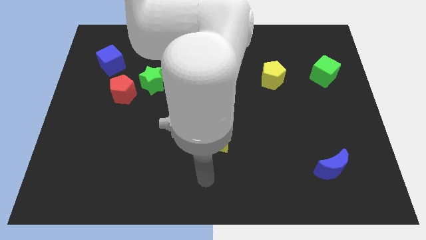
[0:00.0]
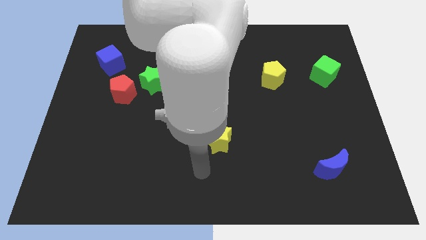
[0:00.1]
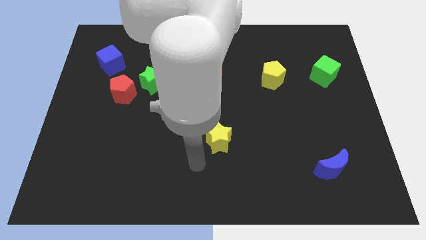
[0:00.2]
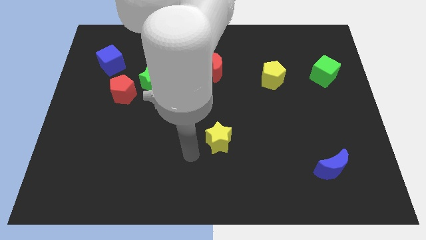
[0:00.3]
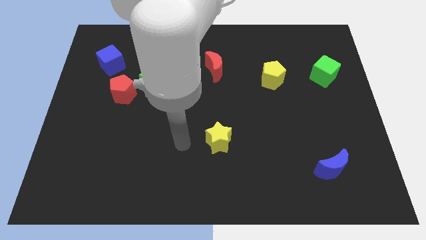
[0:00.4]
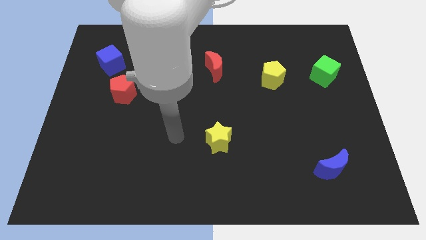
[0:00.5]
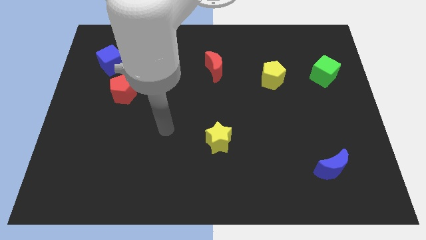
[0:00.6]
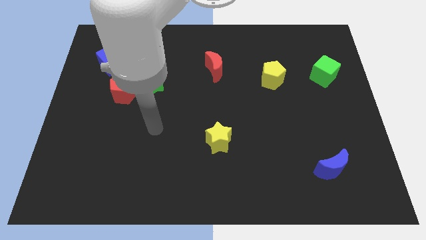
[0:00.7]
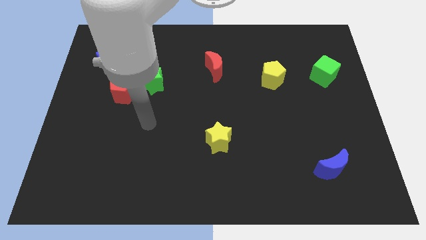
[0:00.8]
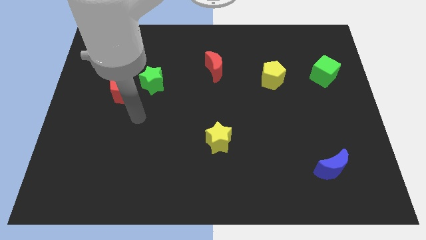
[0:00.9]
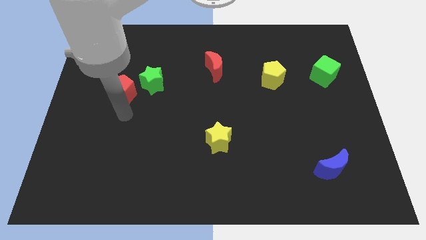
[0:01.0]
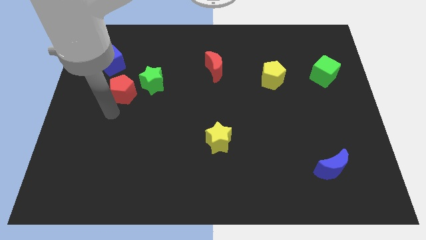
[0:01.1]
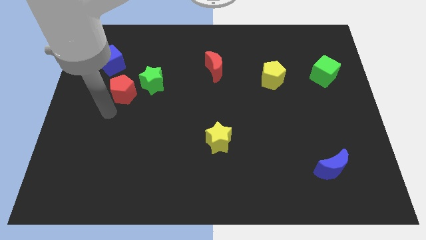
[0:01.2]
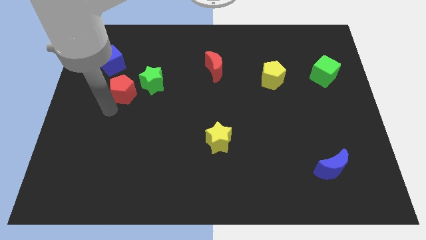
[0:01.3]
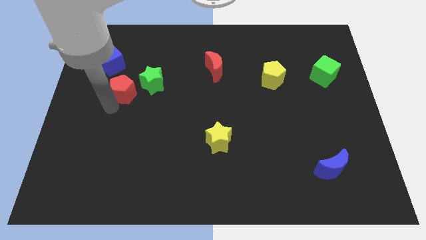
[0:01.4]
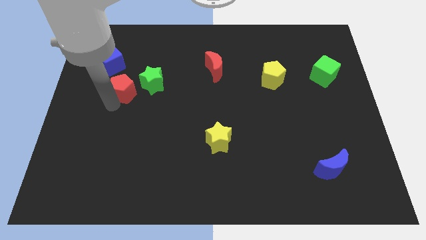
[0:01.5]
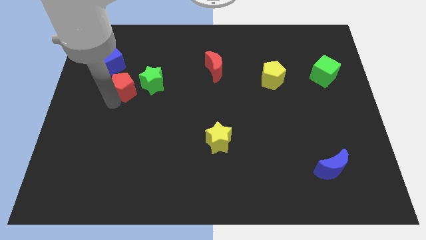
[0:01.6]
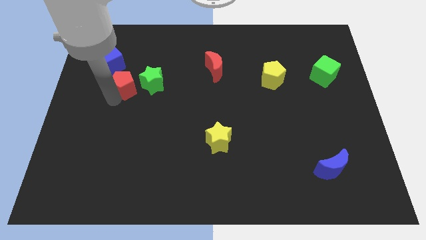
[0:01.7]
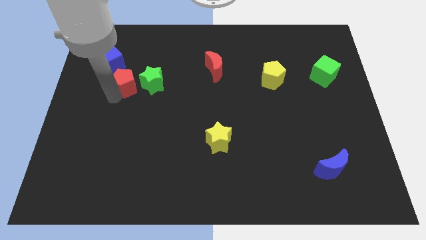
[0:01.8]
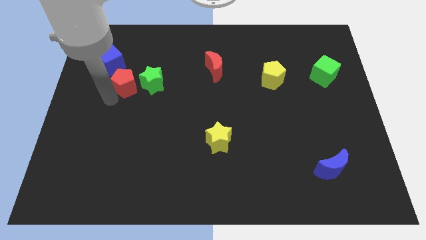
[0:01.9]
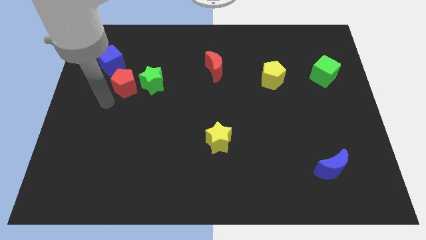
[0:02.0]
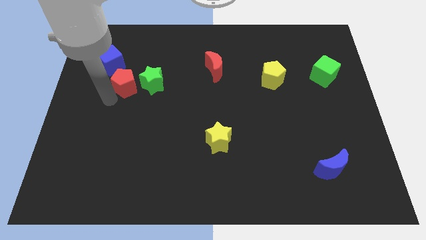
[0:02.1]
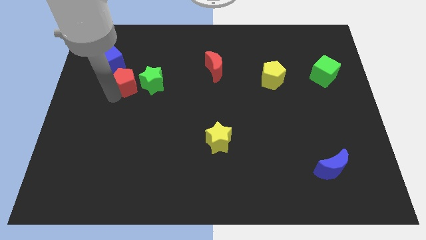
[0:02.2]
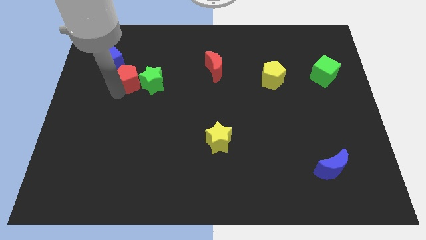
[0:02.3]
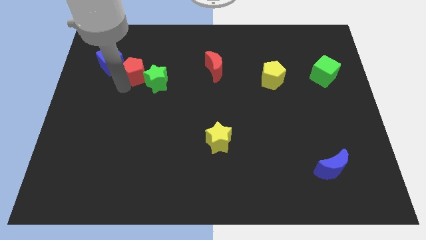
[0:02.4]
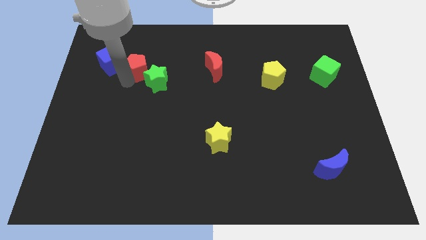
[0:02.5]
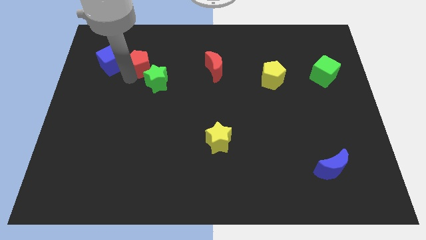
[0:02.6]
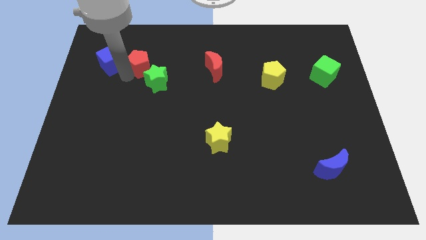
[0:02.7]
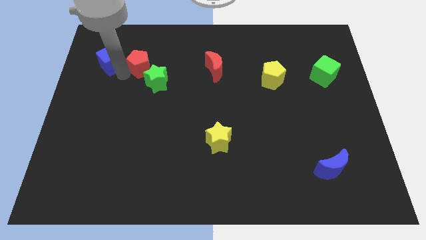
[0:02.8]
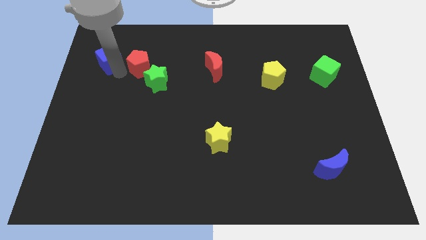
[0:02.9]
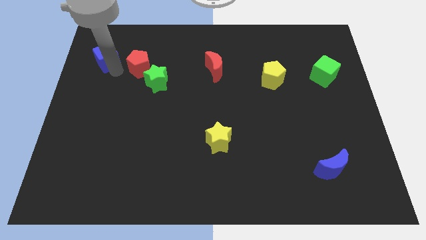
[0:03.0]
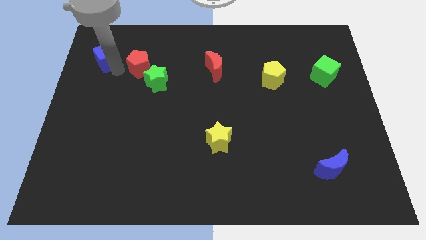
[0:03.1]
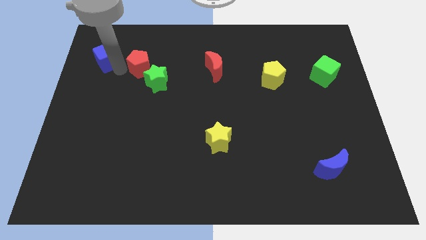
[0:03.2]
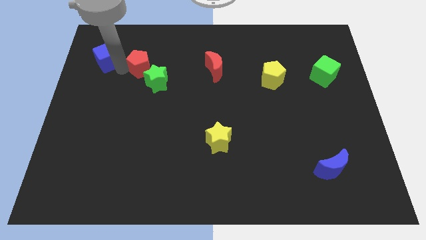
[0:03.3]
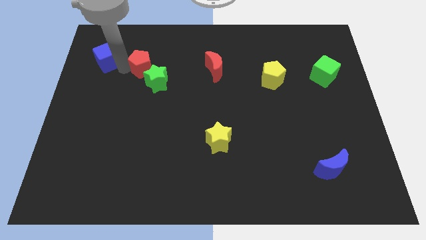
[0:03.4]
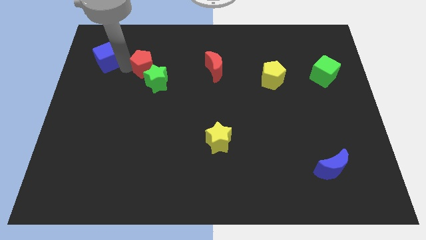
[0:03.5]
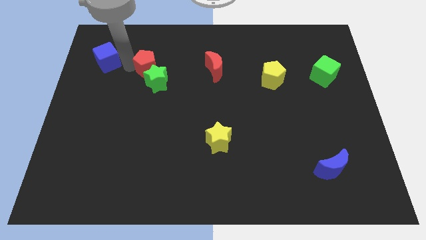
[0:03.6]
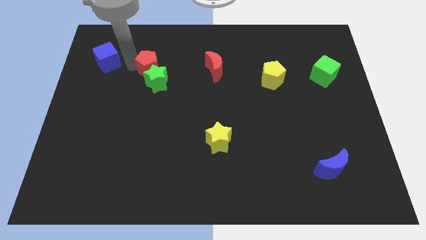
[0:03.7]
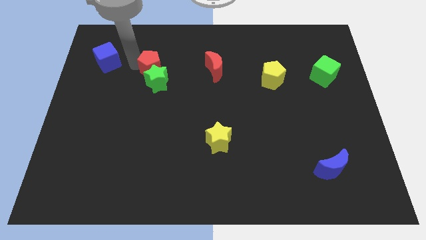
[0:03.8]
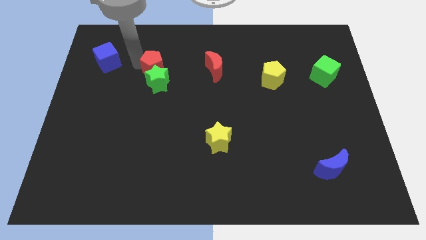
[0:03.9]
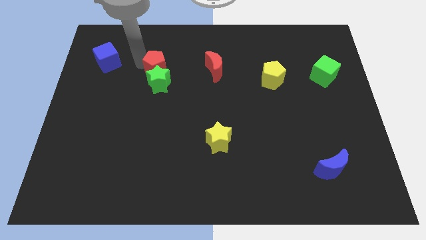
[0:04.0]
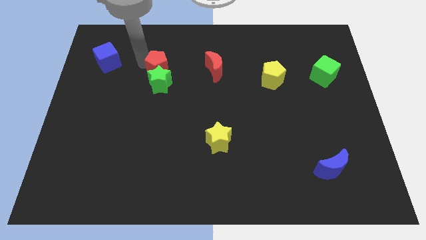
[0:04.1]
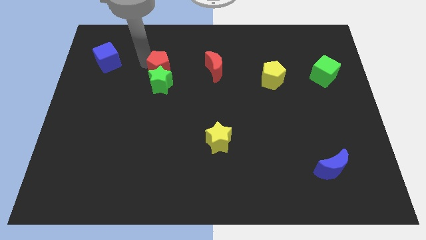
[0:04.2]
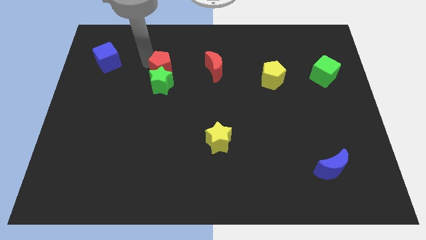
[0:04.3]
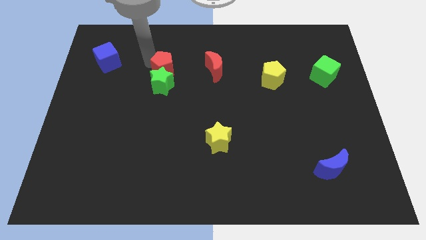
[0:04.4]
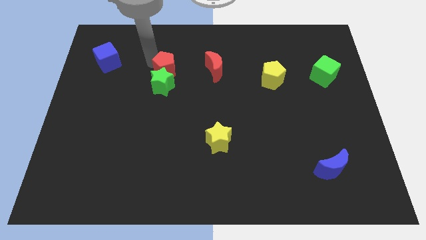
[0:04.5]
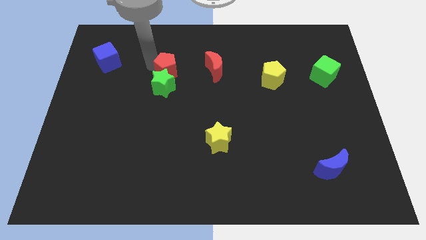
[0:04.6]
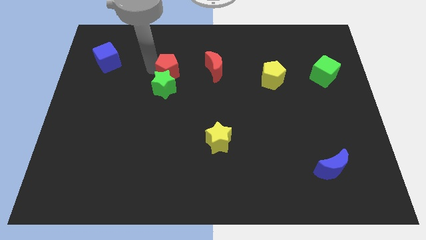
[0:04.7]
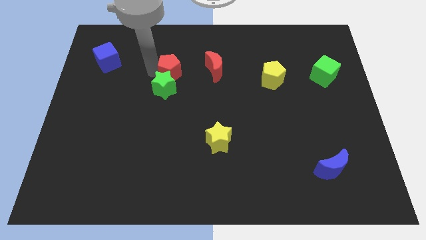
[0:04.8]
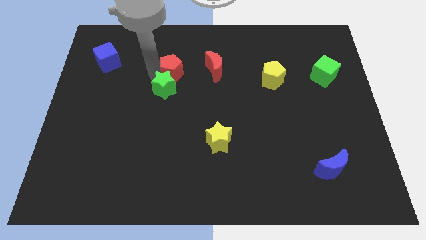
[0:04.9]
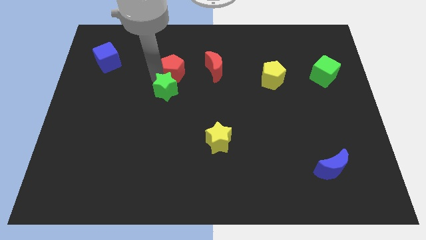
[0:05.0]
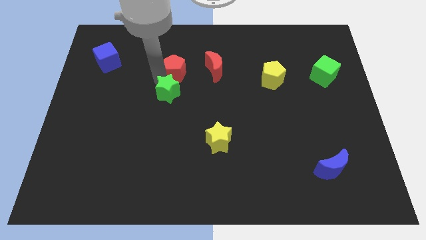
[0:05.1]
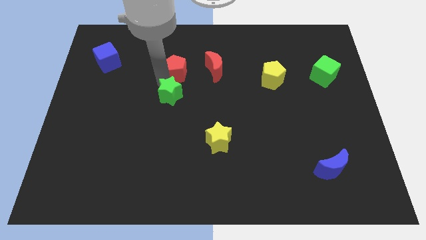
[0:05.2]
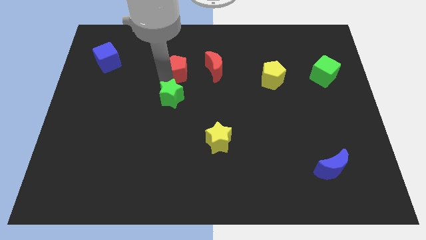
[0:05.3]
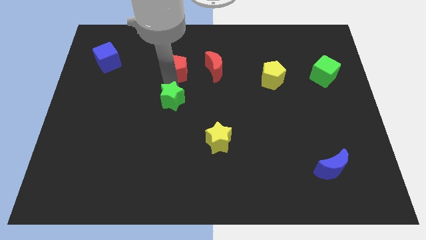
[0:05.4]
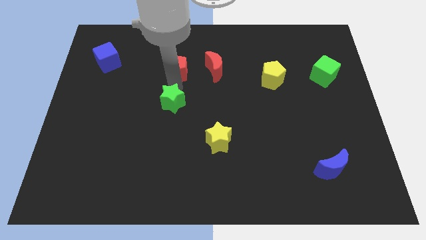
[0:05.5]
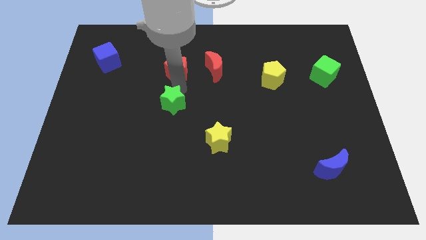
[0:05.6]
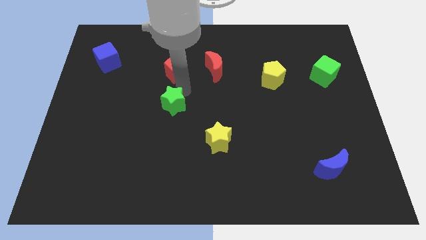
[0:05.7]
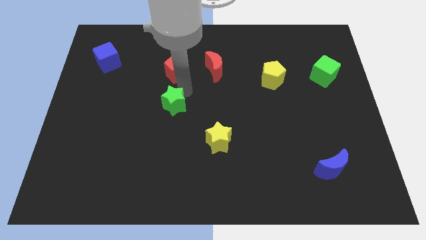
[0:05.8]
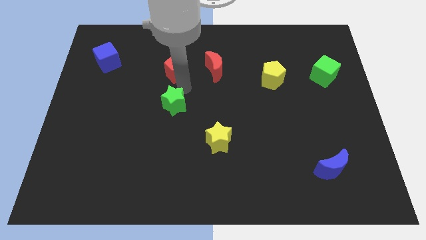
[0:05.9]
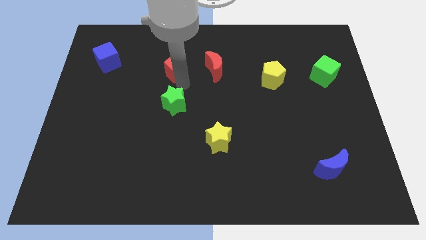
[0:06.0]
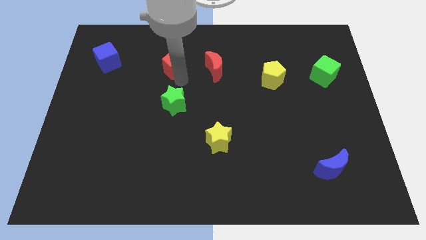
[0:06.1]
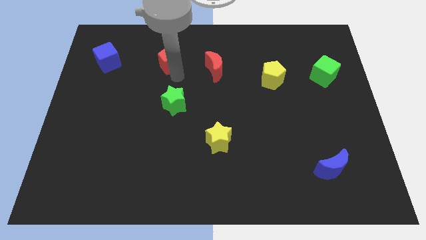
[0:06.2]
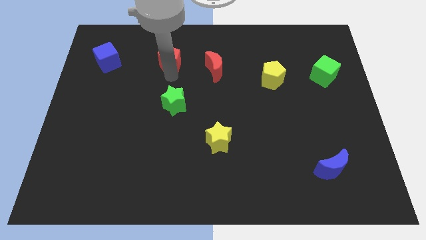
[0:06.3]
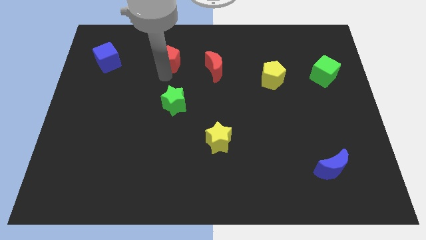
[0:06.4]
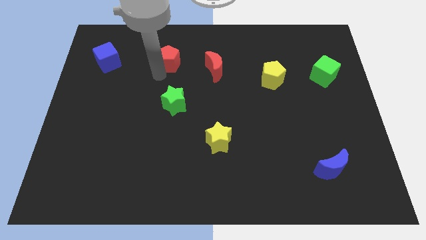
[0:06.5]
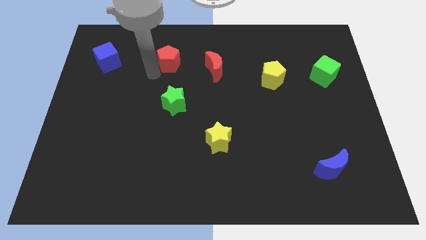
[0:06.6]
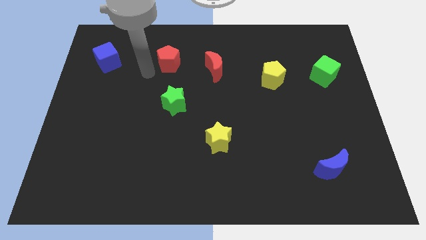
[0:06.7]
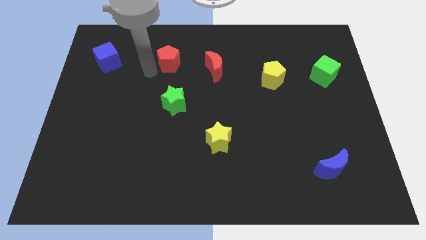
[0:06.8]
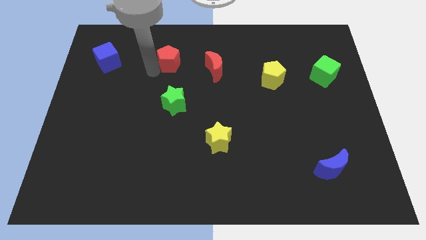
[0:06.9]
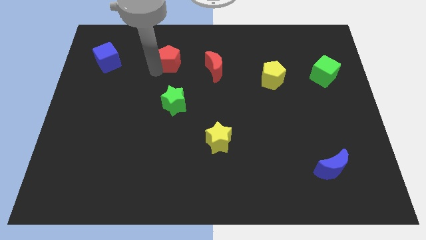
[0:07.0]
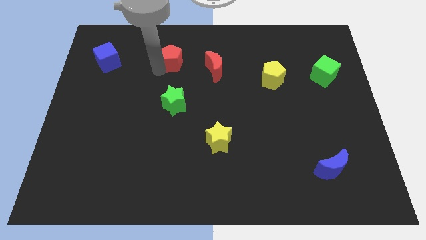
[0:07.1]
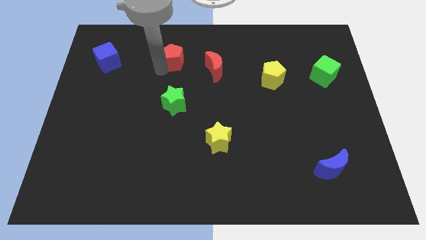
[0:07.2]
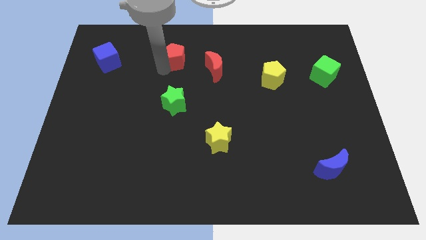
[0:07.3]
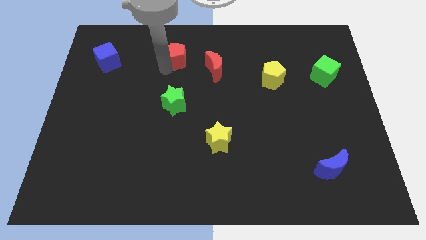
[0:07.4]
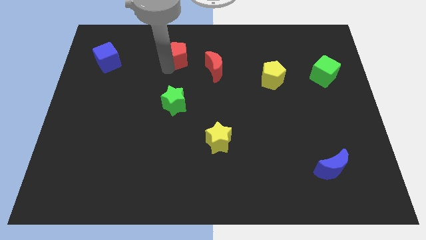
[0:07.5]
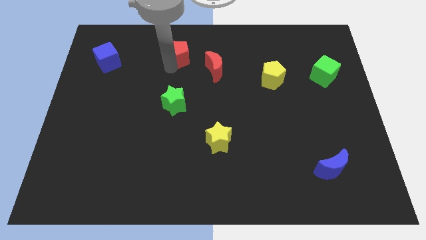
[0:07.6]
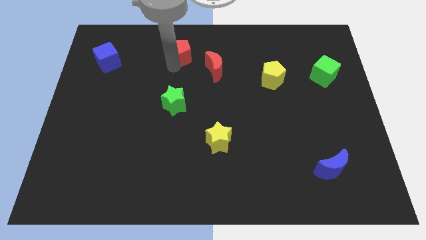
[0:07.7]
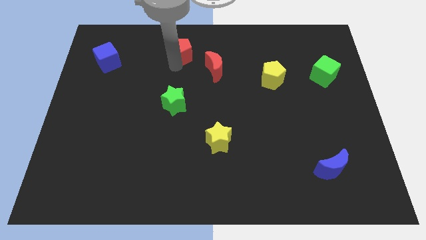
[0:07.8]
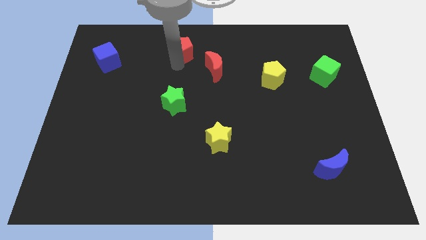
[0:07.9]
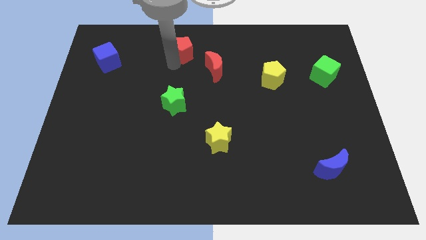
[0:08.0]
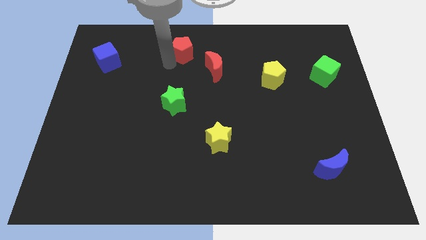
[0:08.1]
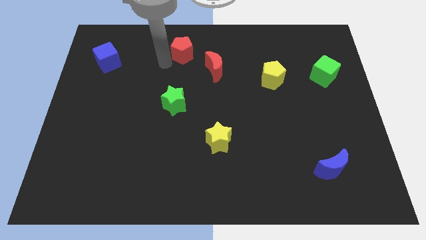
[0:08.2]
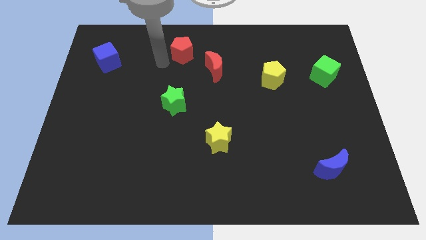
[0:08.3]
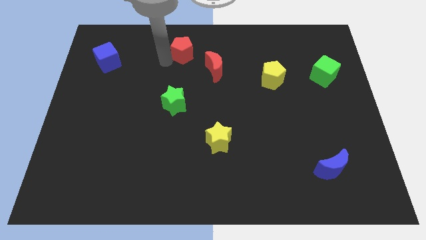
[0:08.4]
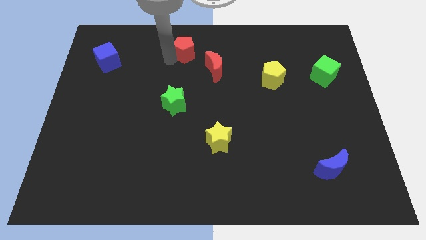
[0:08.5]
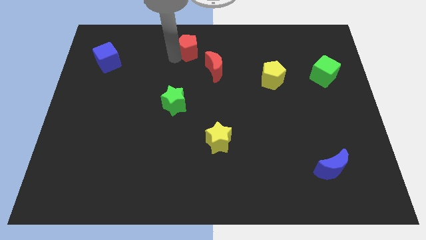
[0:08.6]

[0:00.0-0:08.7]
push the red pentagon to the towards your base
